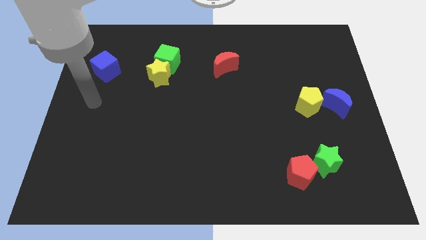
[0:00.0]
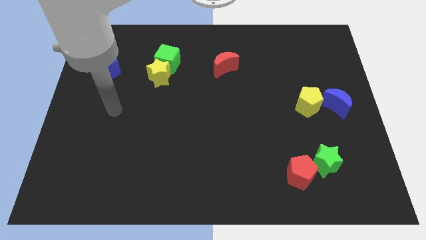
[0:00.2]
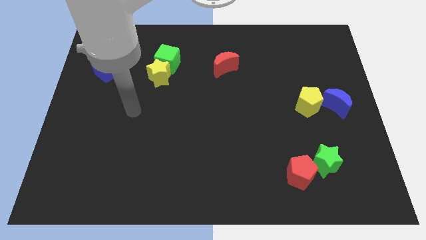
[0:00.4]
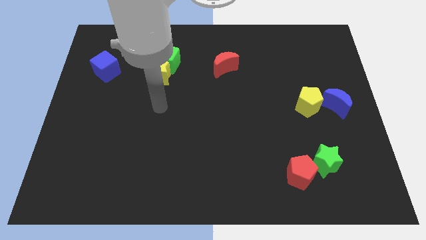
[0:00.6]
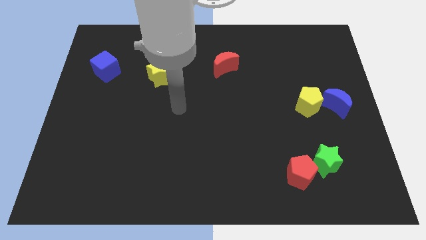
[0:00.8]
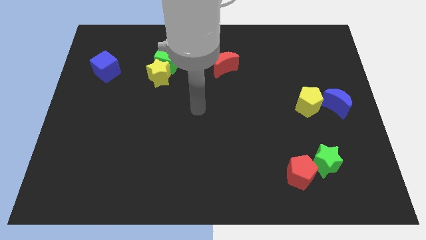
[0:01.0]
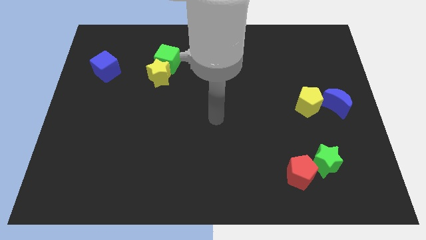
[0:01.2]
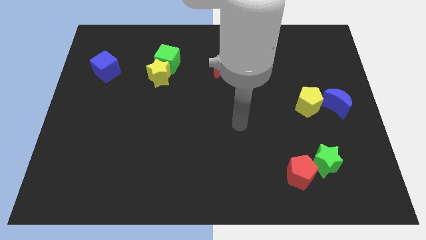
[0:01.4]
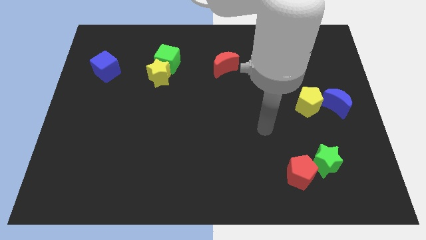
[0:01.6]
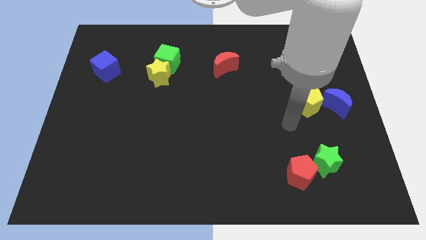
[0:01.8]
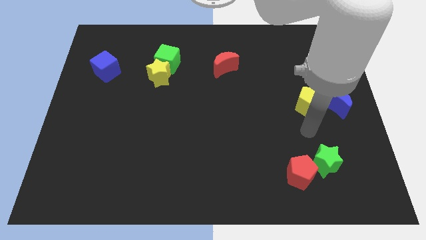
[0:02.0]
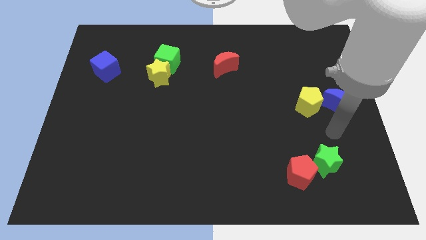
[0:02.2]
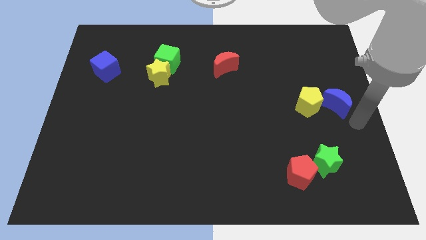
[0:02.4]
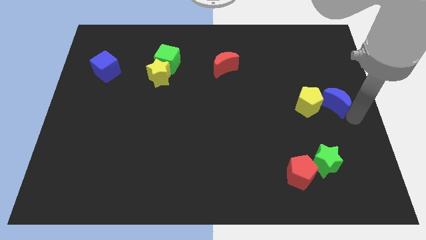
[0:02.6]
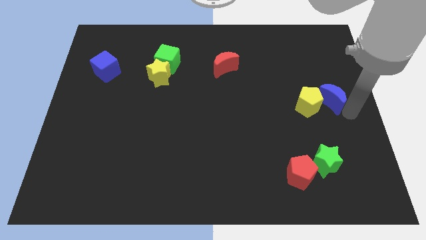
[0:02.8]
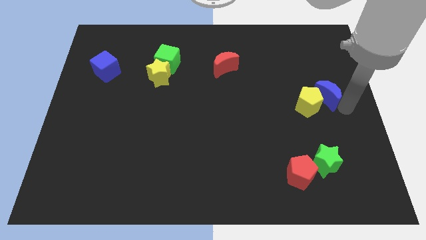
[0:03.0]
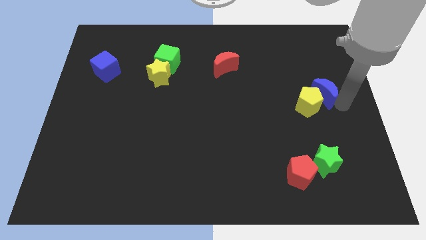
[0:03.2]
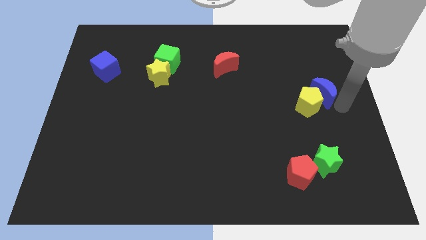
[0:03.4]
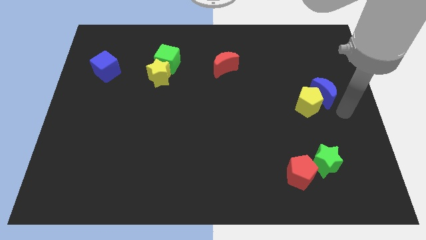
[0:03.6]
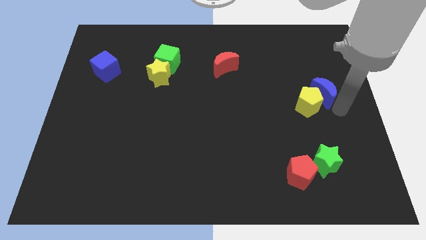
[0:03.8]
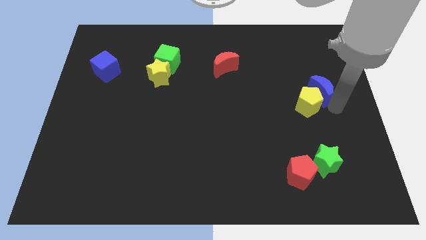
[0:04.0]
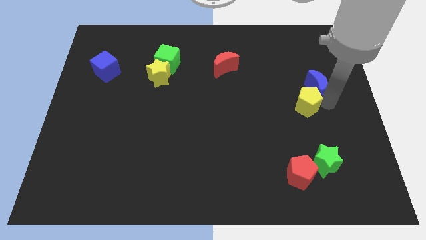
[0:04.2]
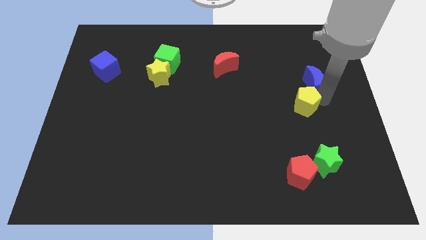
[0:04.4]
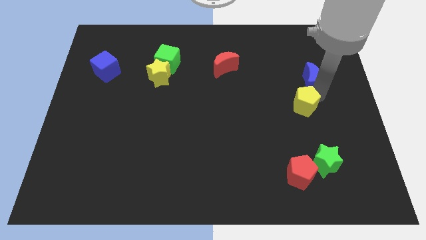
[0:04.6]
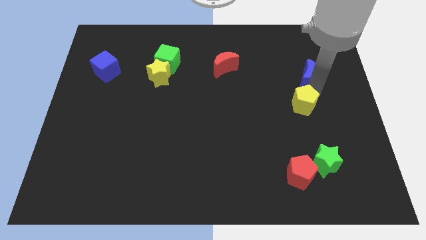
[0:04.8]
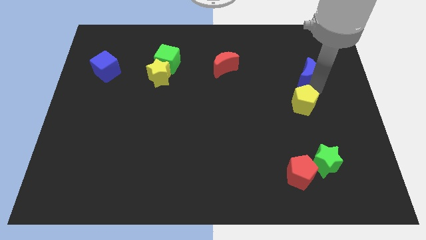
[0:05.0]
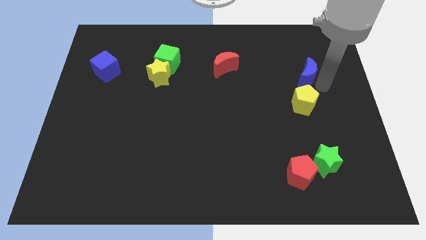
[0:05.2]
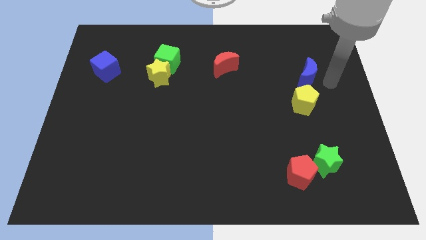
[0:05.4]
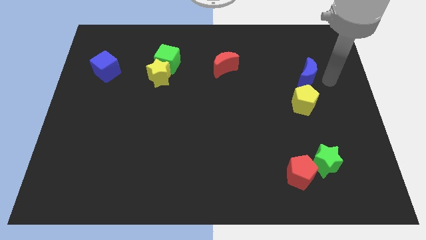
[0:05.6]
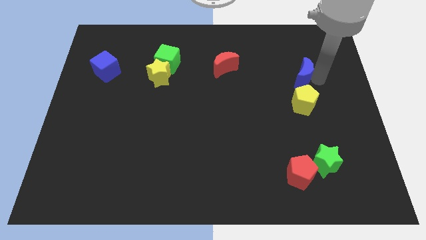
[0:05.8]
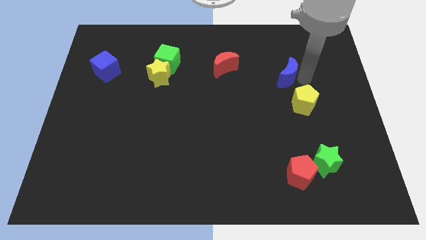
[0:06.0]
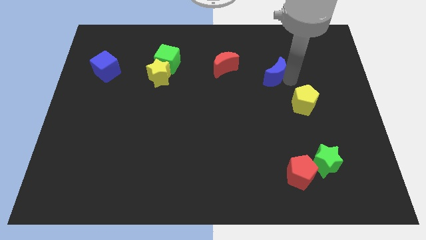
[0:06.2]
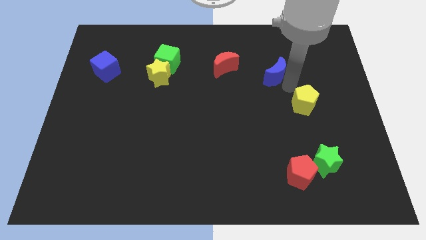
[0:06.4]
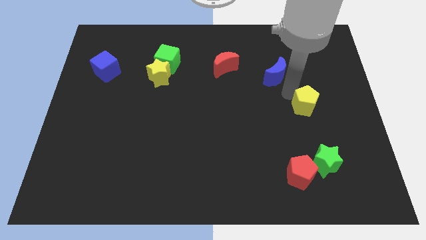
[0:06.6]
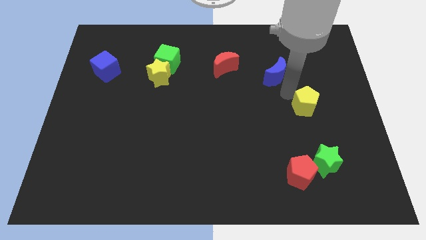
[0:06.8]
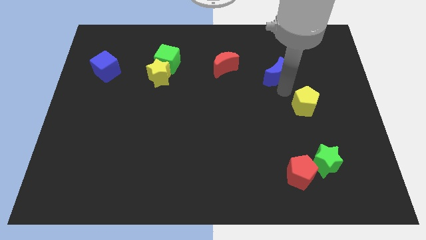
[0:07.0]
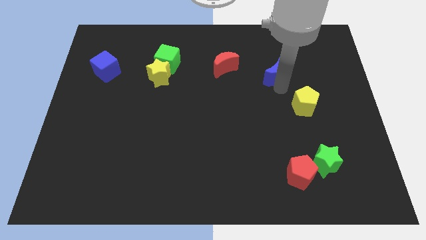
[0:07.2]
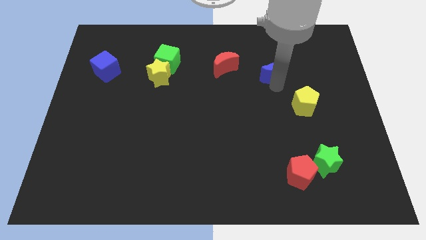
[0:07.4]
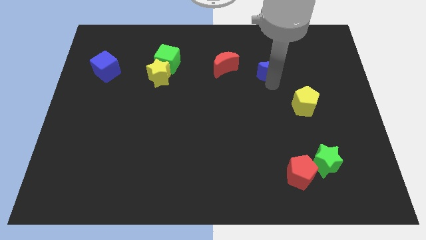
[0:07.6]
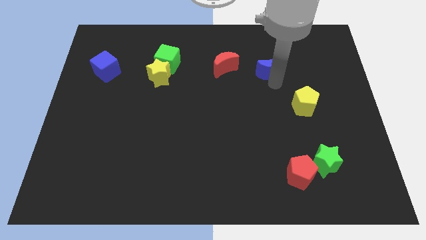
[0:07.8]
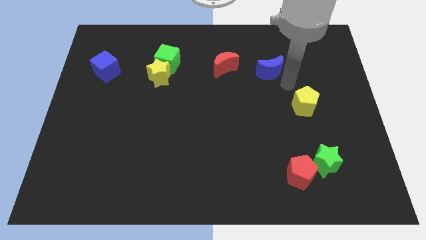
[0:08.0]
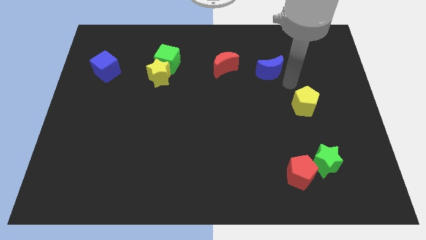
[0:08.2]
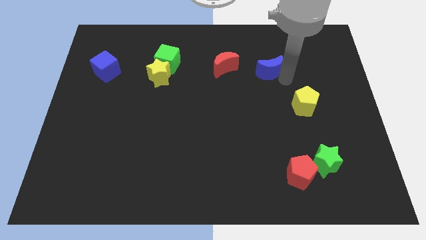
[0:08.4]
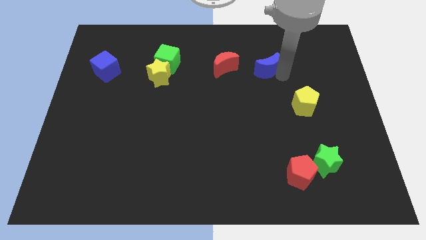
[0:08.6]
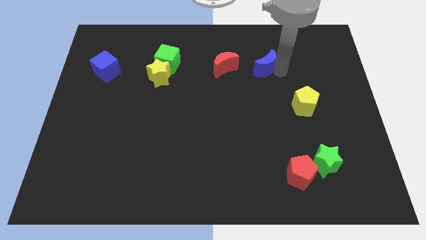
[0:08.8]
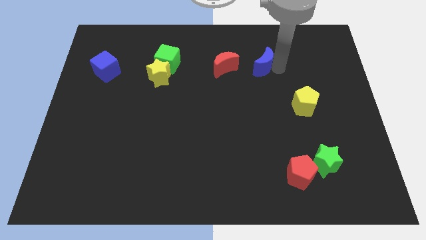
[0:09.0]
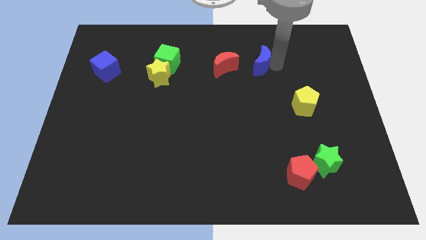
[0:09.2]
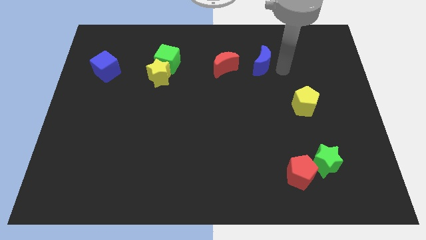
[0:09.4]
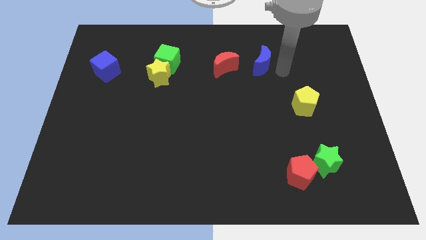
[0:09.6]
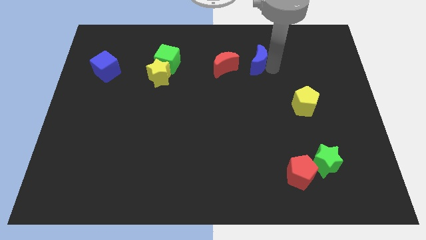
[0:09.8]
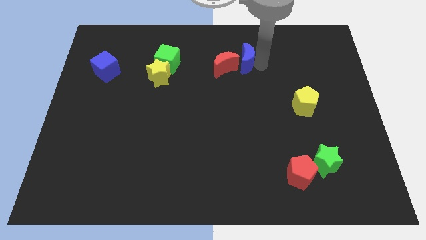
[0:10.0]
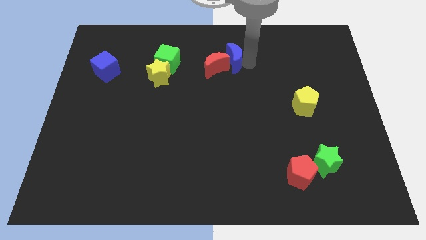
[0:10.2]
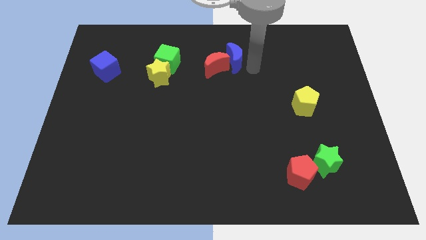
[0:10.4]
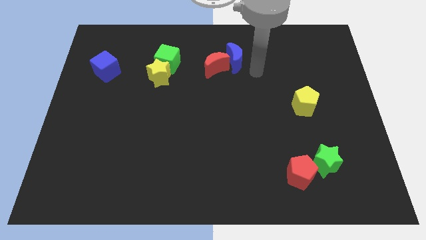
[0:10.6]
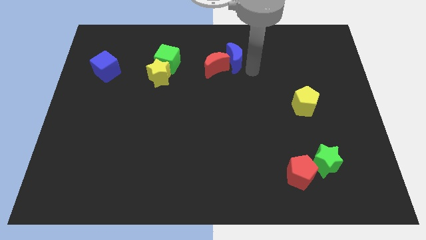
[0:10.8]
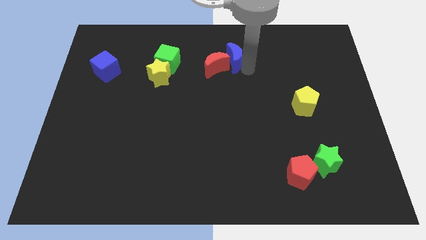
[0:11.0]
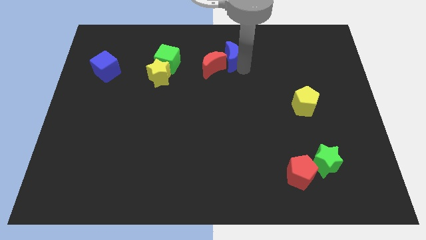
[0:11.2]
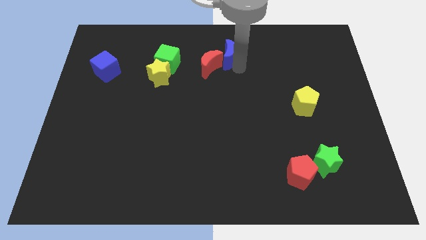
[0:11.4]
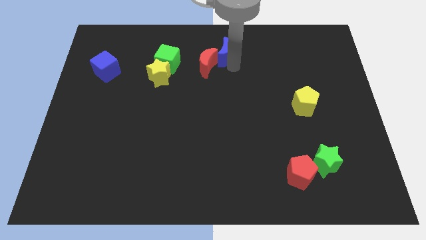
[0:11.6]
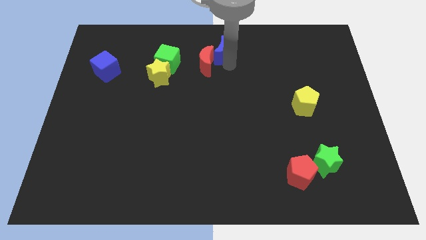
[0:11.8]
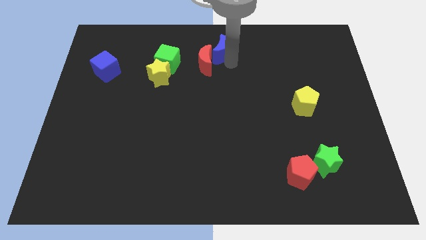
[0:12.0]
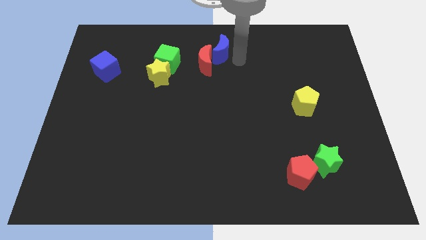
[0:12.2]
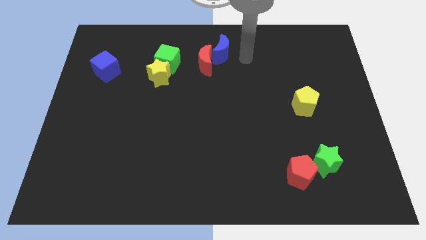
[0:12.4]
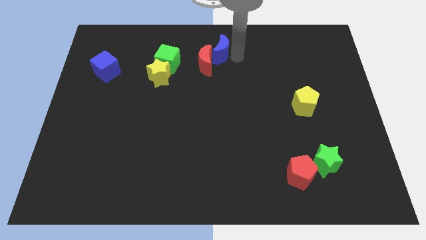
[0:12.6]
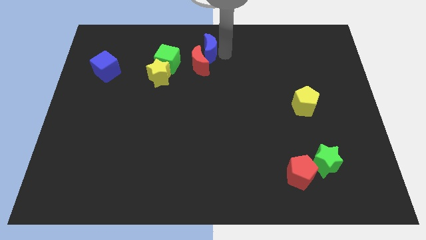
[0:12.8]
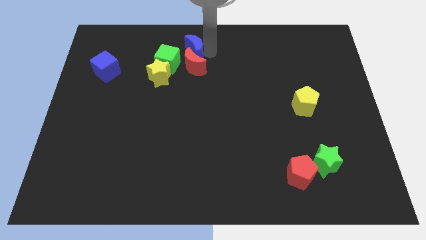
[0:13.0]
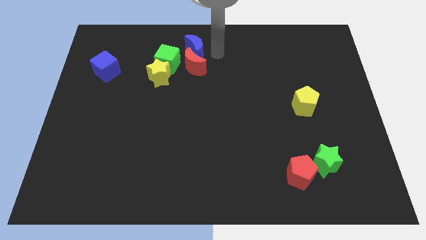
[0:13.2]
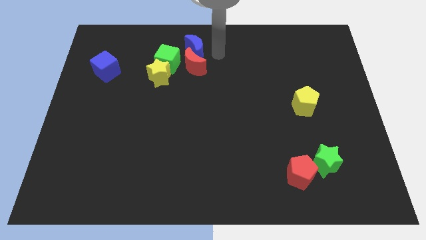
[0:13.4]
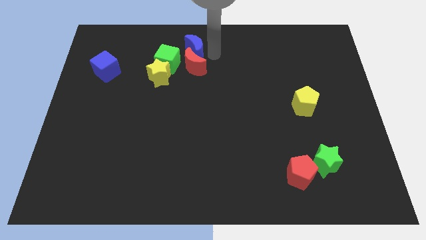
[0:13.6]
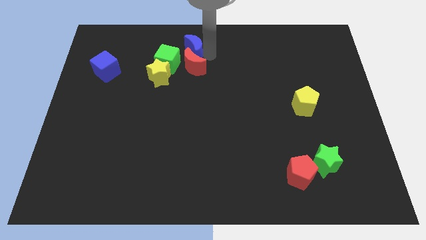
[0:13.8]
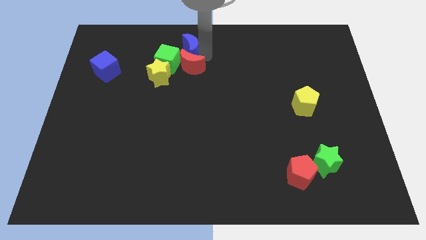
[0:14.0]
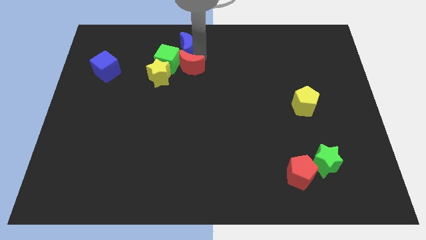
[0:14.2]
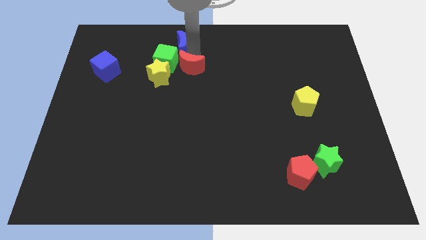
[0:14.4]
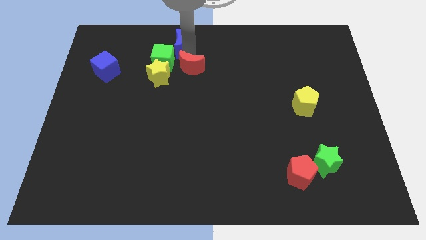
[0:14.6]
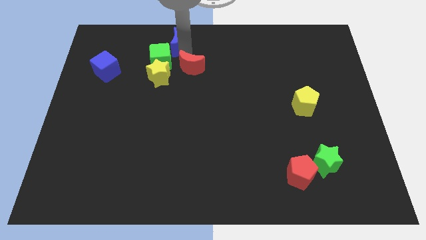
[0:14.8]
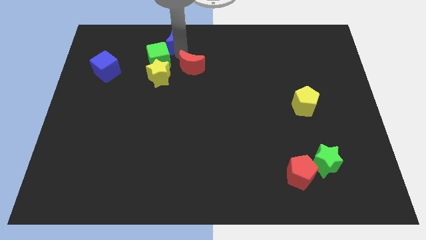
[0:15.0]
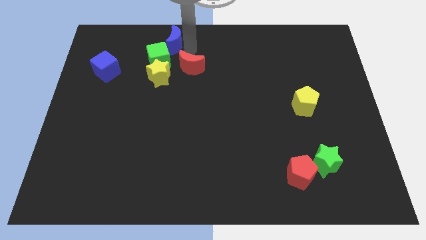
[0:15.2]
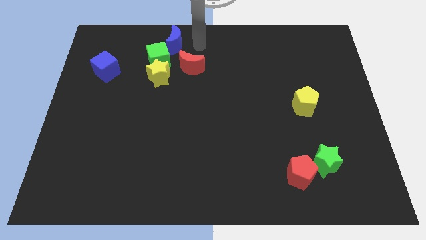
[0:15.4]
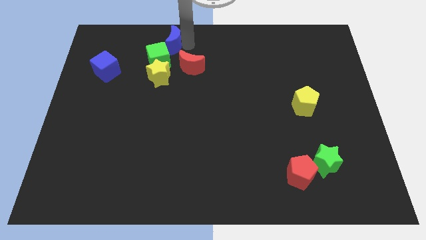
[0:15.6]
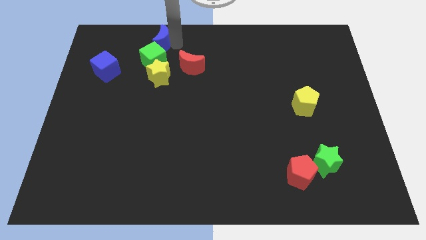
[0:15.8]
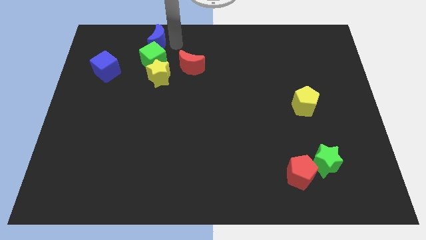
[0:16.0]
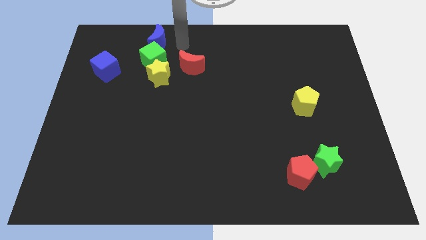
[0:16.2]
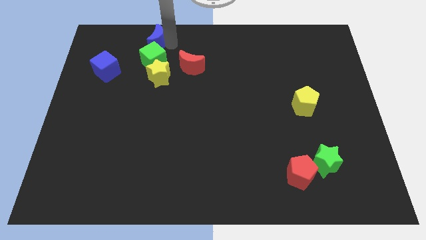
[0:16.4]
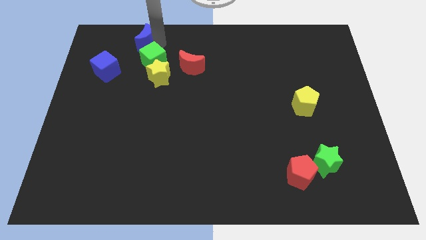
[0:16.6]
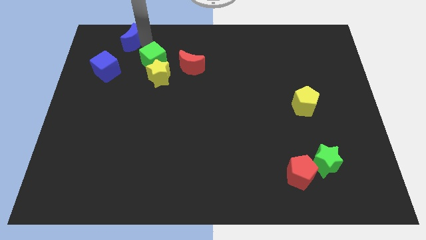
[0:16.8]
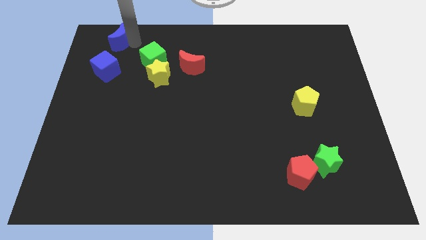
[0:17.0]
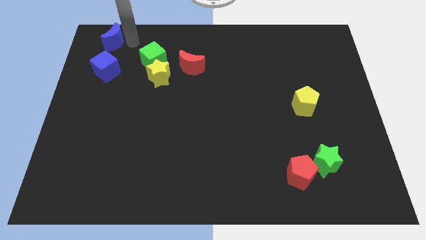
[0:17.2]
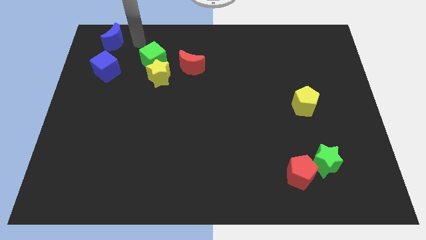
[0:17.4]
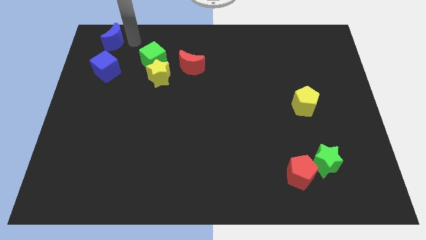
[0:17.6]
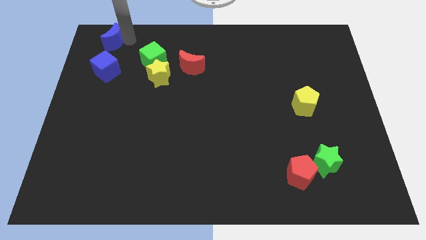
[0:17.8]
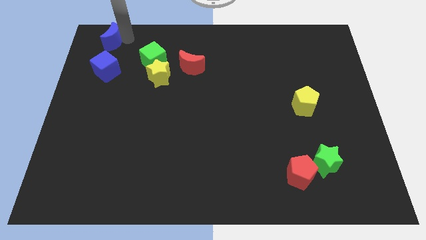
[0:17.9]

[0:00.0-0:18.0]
move the blue moon to the upper left corner
